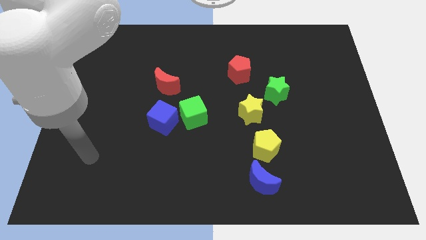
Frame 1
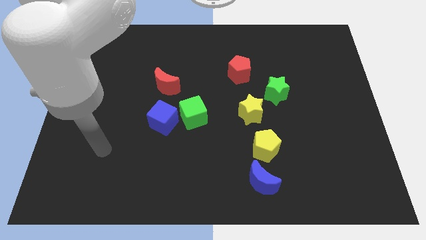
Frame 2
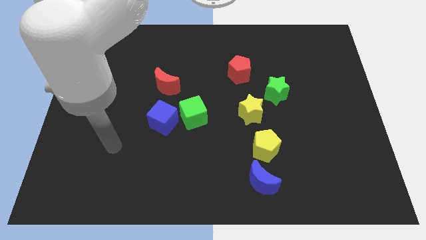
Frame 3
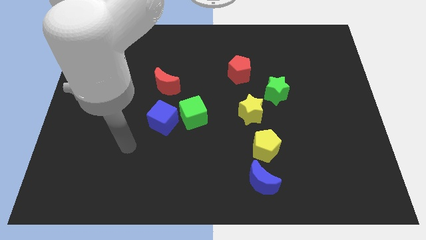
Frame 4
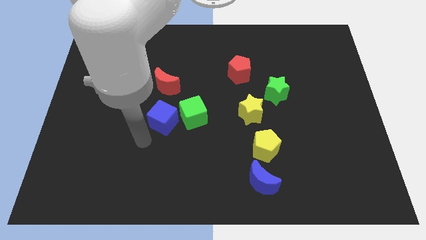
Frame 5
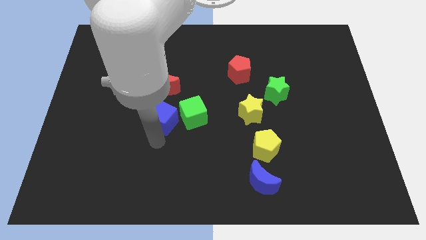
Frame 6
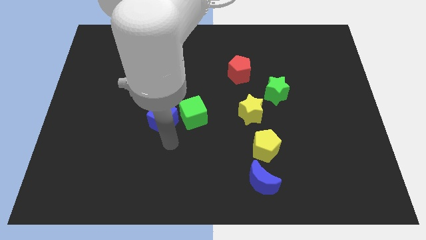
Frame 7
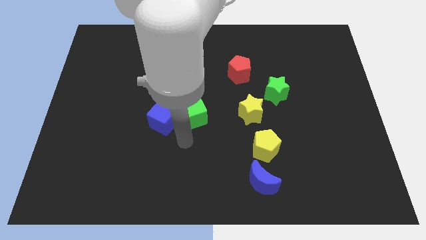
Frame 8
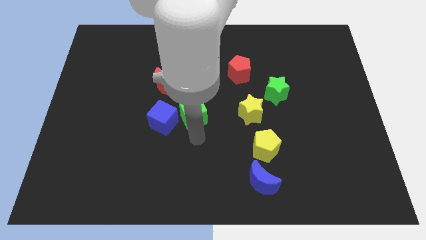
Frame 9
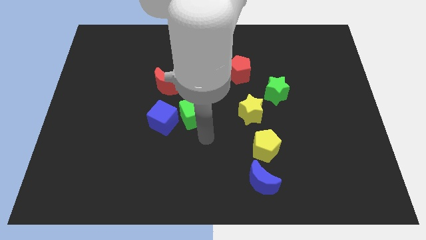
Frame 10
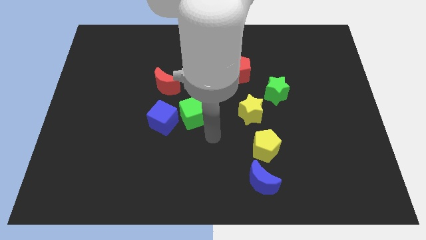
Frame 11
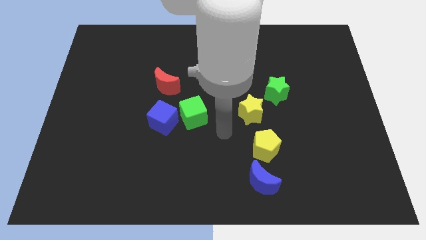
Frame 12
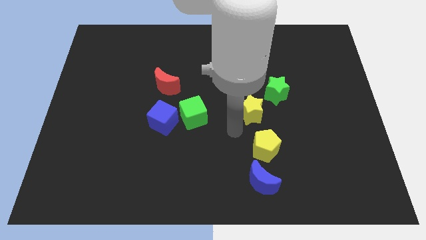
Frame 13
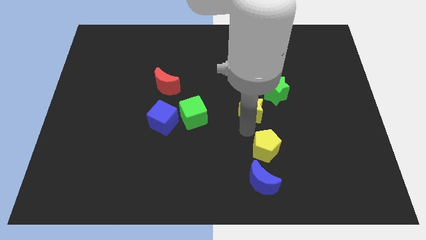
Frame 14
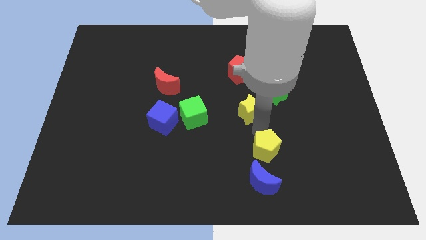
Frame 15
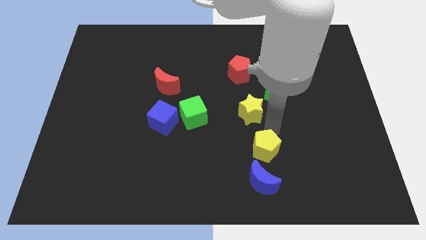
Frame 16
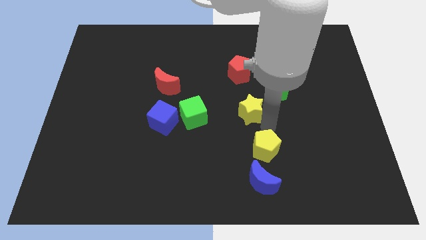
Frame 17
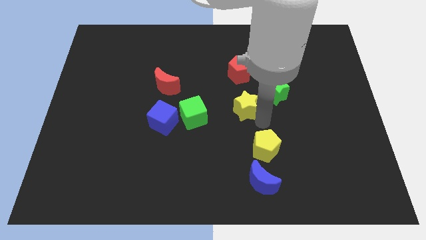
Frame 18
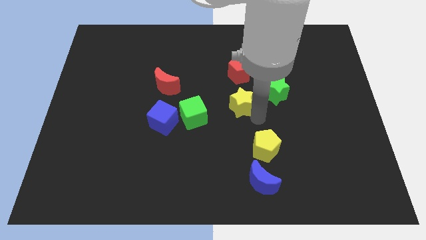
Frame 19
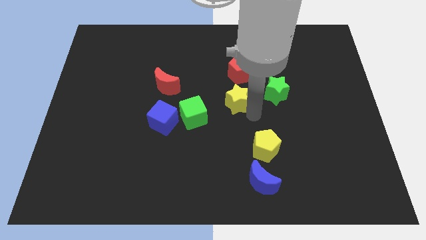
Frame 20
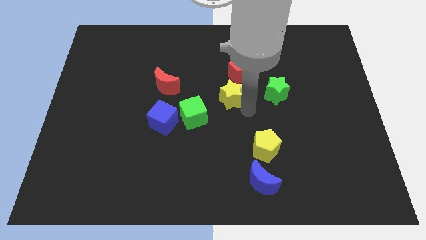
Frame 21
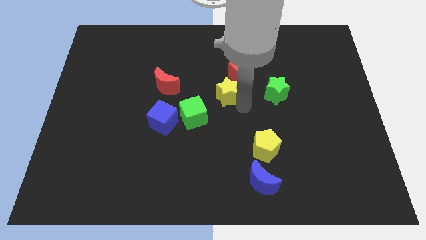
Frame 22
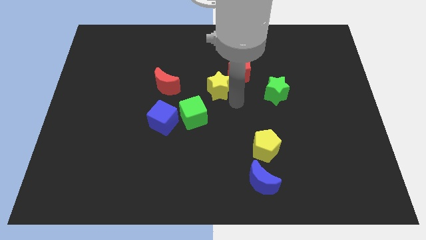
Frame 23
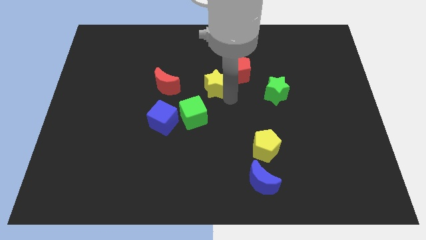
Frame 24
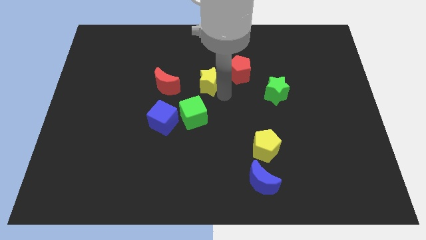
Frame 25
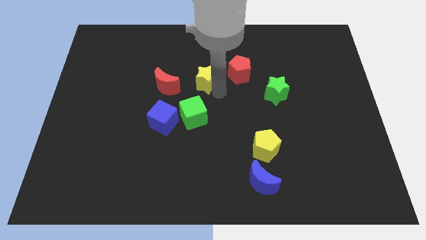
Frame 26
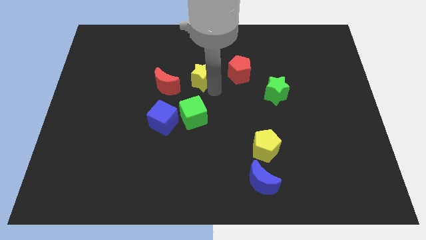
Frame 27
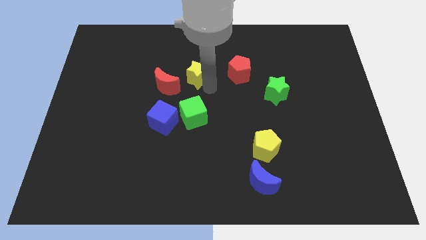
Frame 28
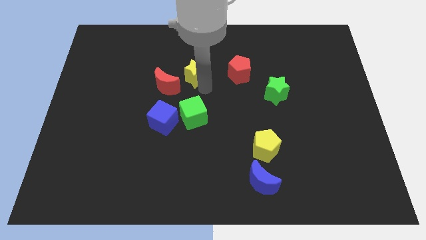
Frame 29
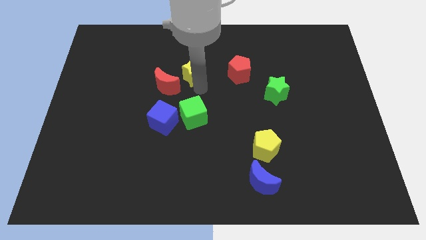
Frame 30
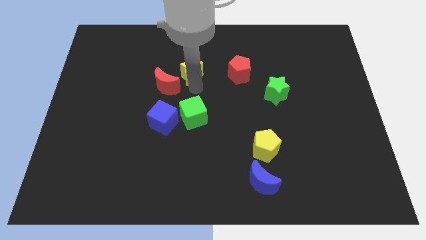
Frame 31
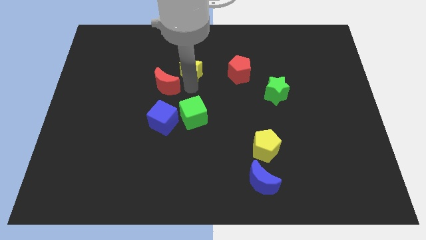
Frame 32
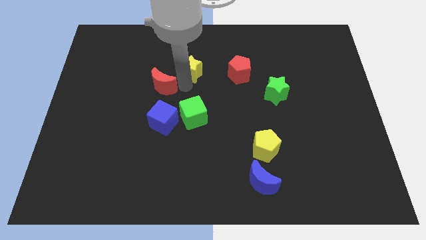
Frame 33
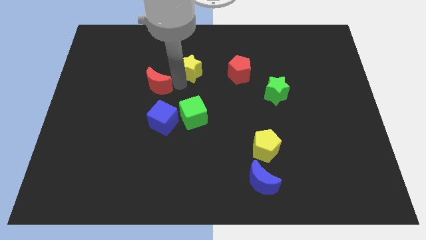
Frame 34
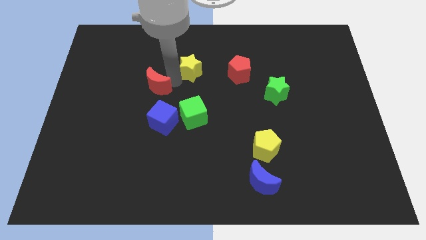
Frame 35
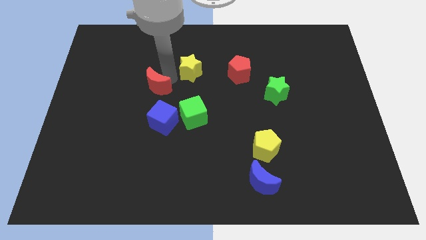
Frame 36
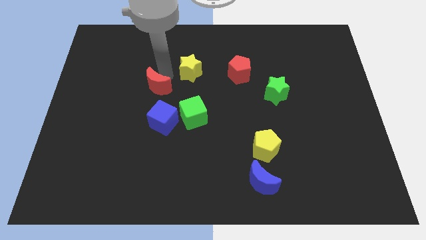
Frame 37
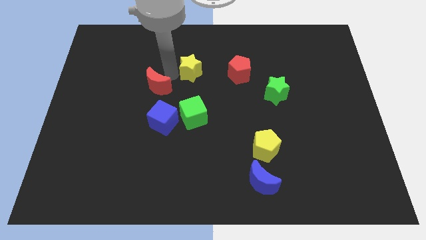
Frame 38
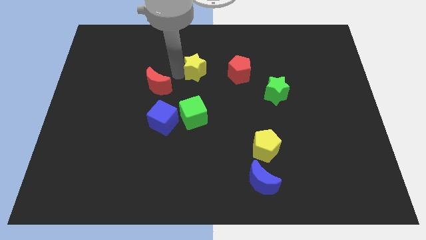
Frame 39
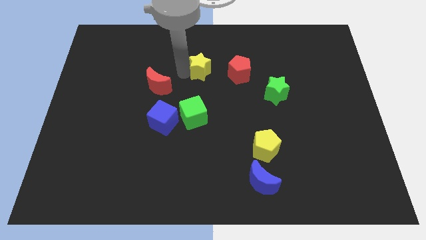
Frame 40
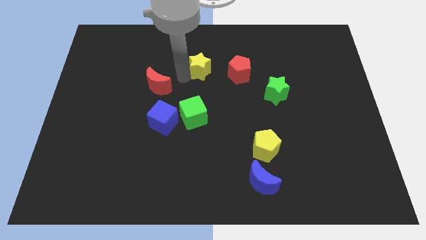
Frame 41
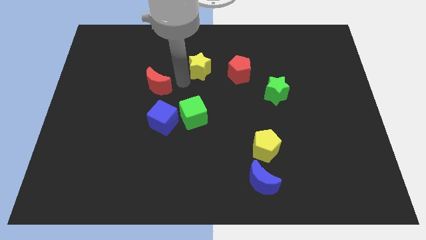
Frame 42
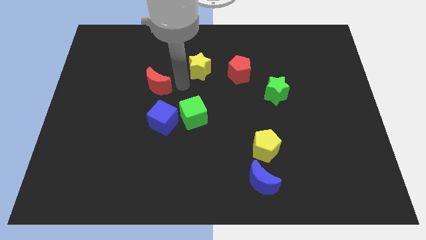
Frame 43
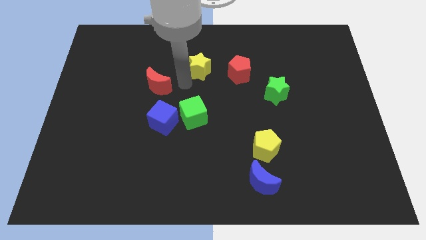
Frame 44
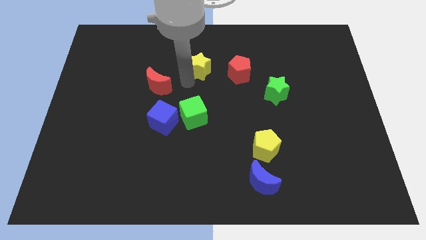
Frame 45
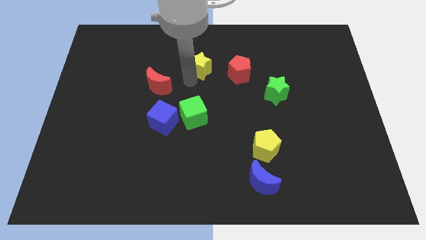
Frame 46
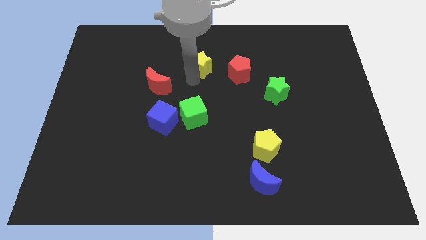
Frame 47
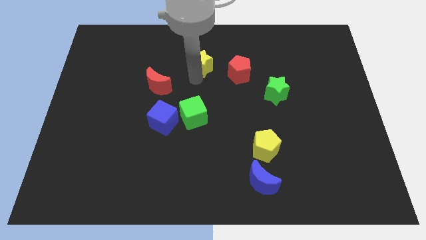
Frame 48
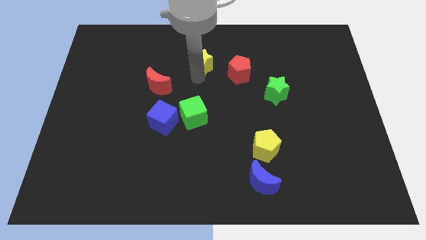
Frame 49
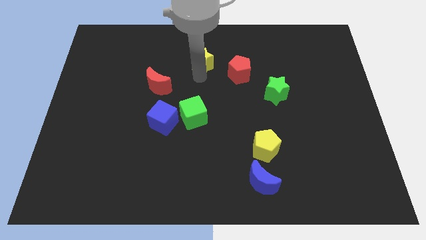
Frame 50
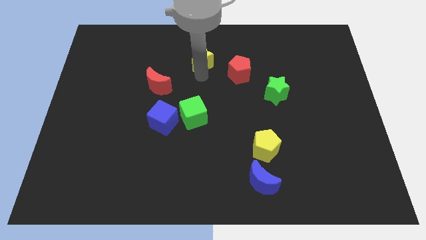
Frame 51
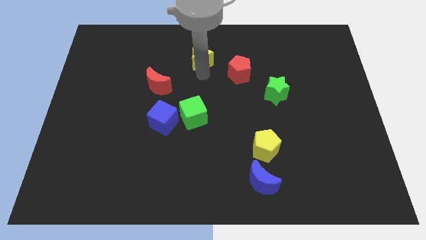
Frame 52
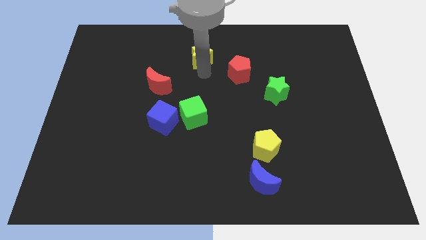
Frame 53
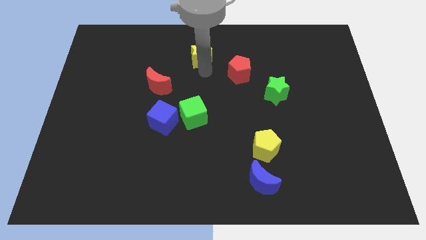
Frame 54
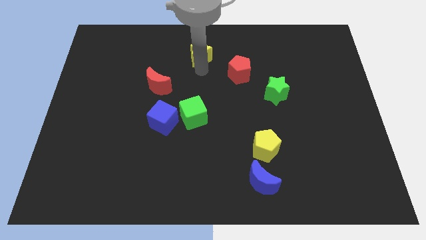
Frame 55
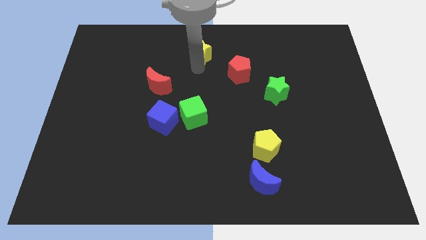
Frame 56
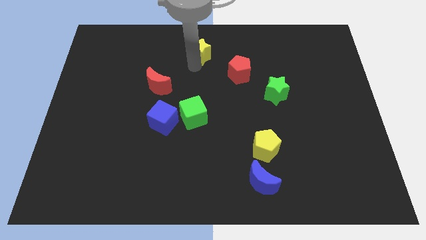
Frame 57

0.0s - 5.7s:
slide the yellow star to the towards your base

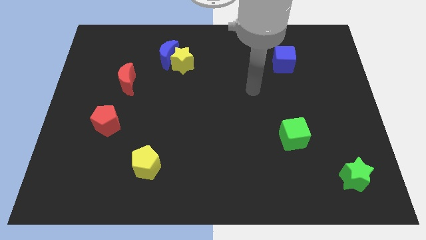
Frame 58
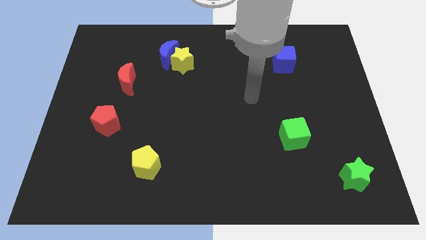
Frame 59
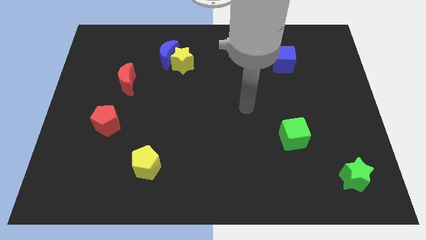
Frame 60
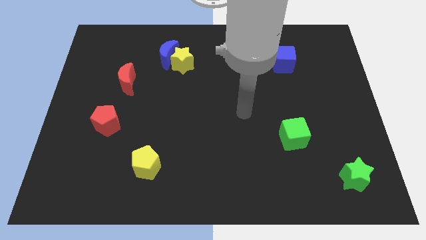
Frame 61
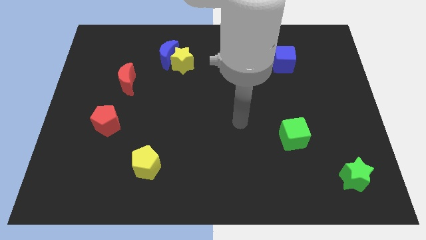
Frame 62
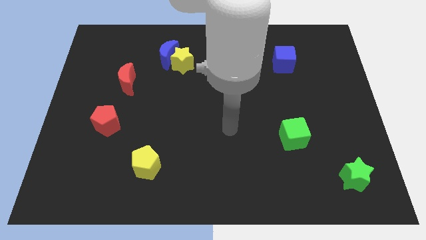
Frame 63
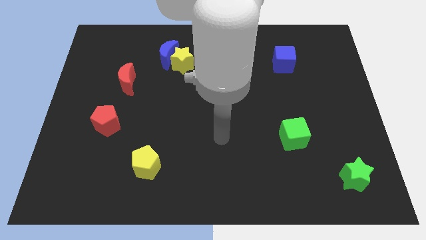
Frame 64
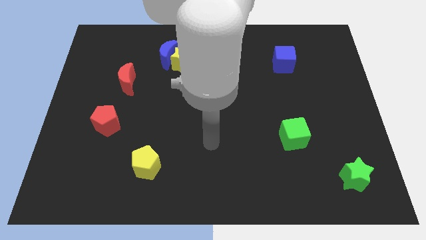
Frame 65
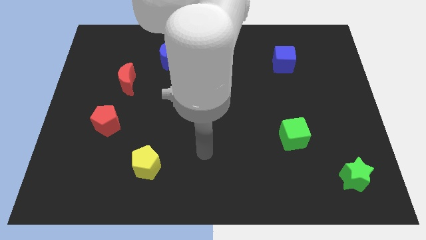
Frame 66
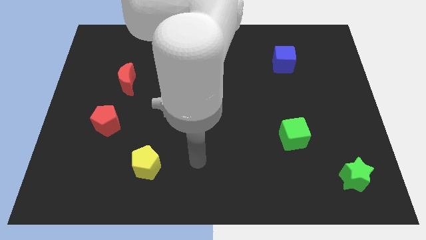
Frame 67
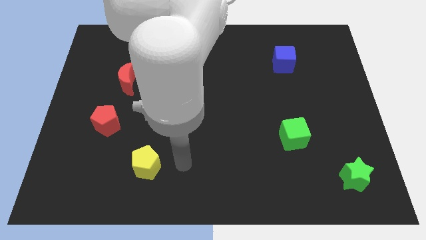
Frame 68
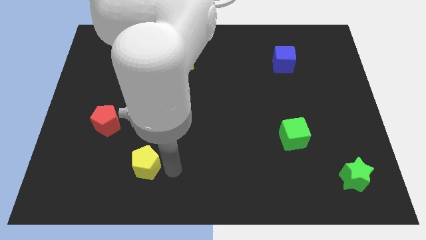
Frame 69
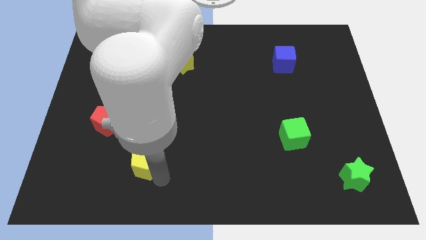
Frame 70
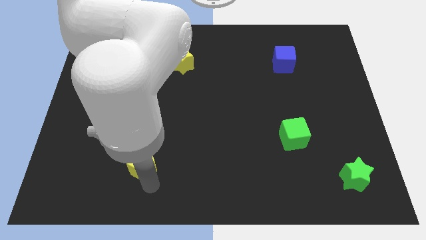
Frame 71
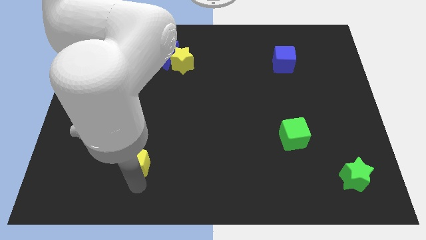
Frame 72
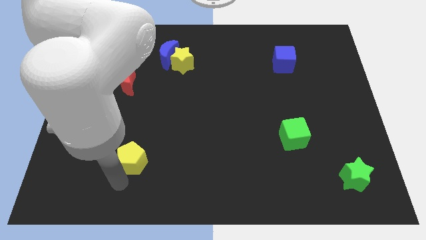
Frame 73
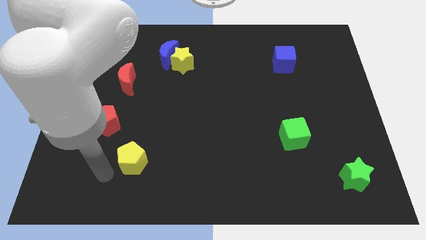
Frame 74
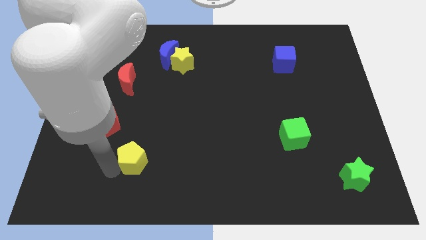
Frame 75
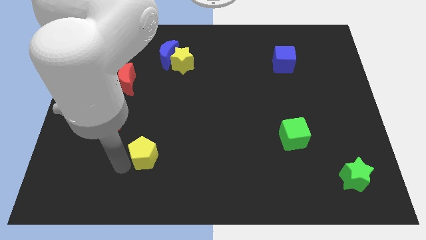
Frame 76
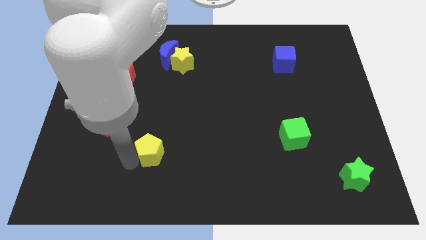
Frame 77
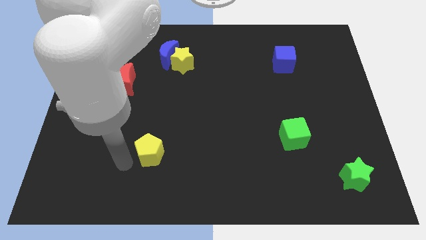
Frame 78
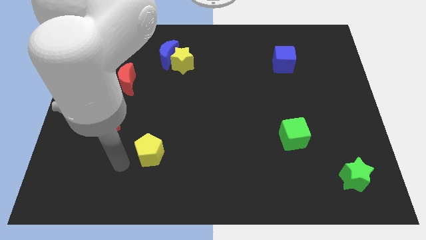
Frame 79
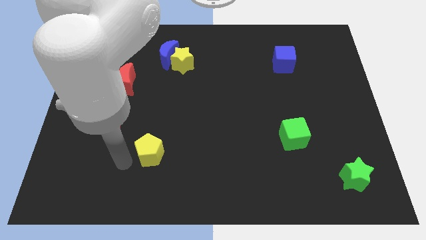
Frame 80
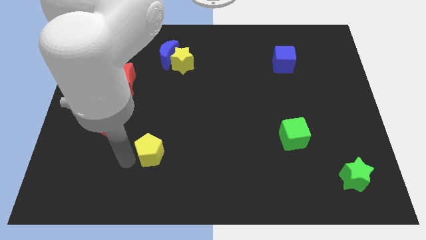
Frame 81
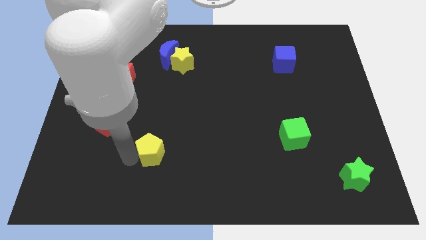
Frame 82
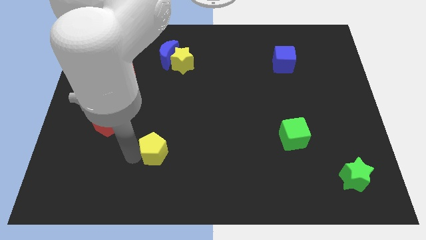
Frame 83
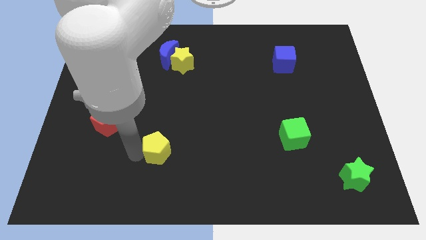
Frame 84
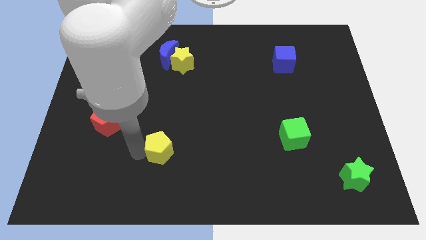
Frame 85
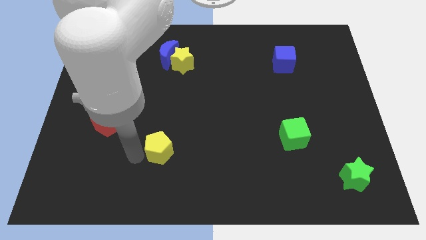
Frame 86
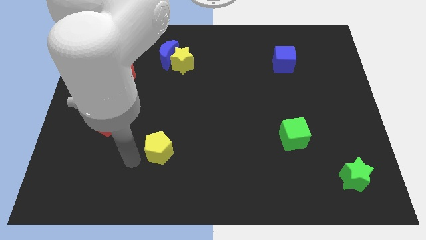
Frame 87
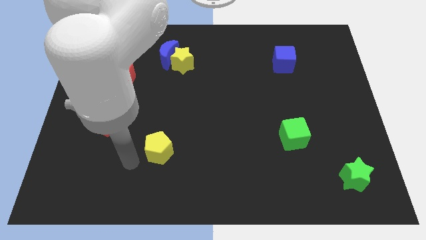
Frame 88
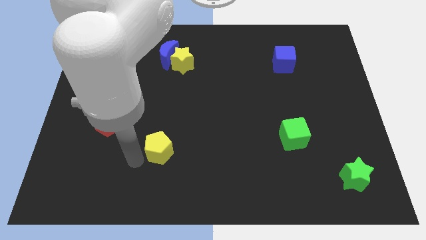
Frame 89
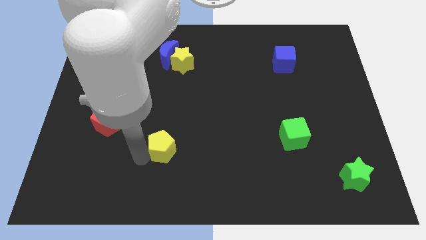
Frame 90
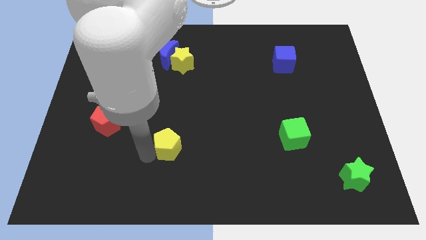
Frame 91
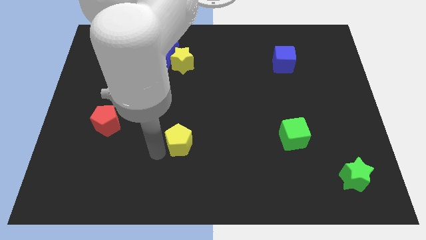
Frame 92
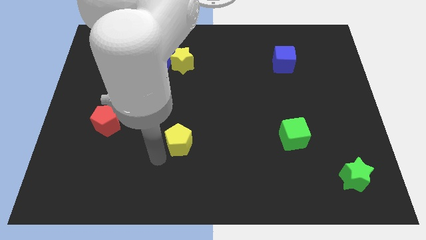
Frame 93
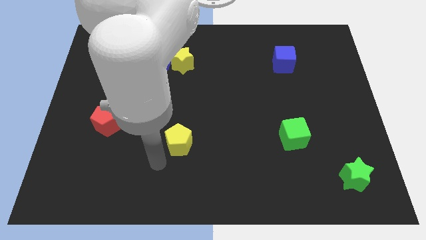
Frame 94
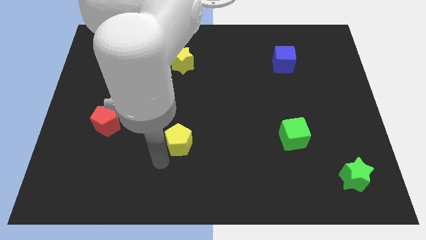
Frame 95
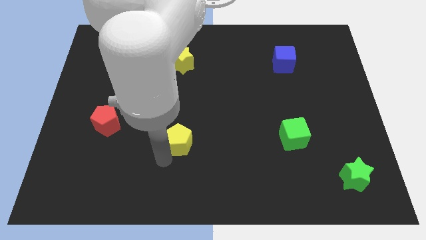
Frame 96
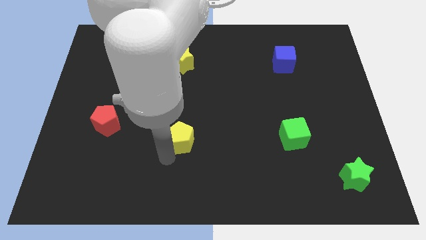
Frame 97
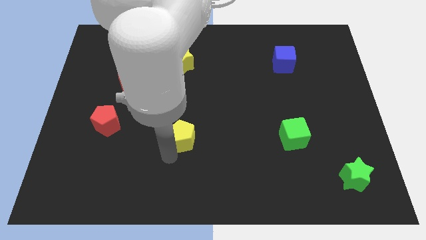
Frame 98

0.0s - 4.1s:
push the yellow pentagon to the center
